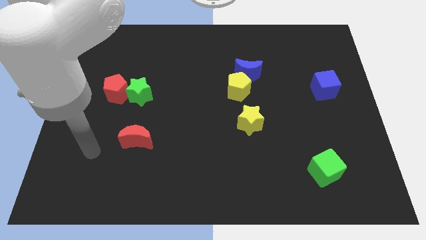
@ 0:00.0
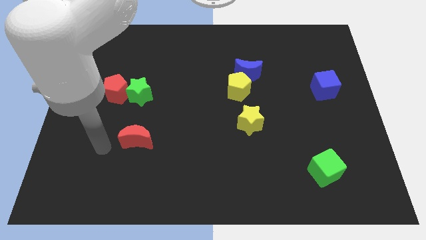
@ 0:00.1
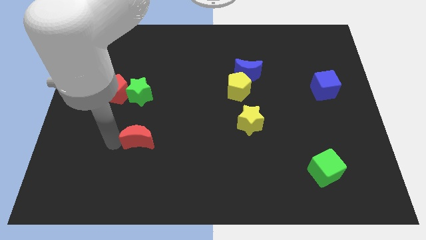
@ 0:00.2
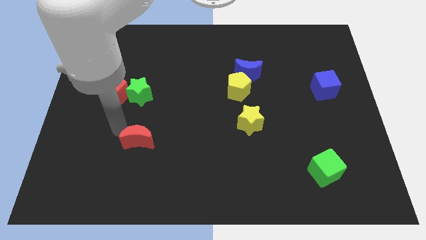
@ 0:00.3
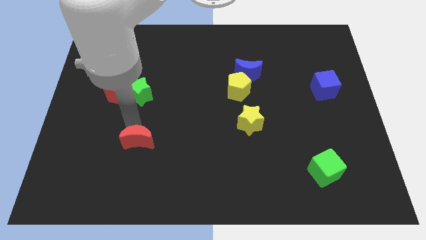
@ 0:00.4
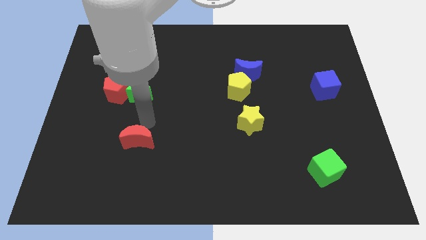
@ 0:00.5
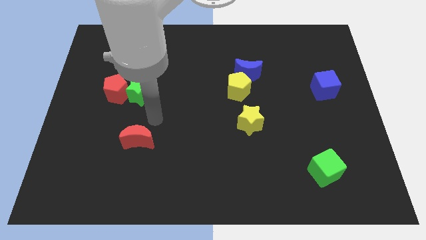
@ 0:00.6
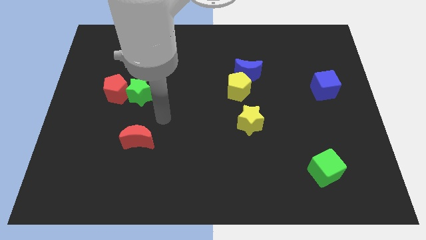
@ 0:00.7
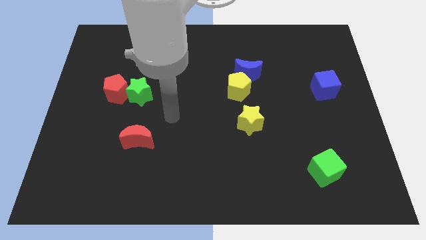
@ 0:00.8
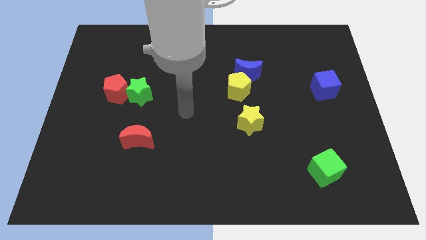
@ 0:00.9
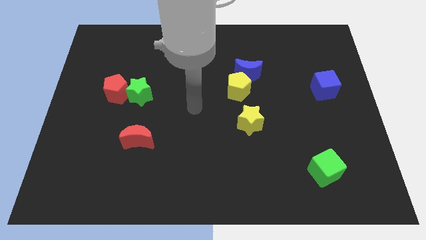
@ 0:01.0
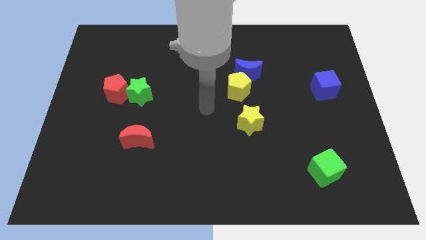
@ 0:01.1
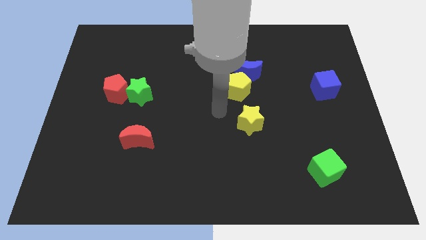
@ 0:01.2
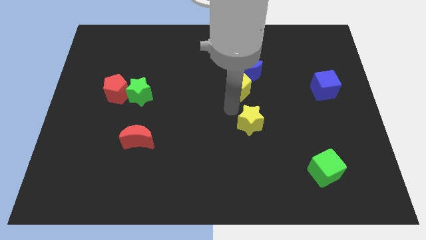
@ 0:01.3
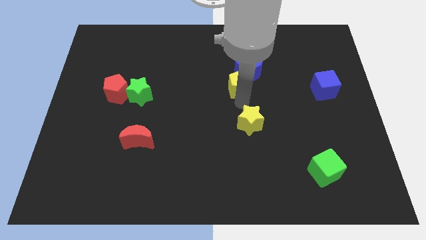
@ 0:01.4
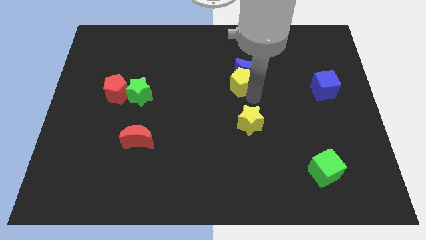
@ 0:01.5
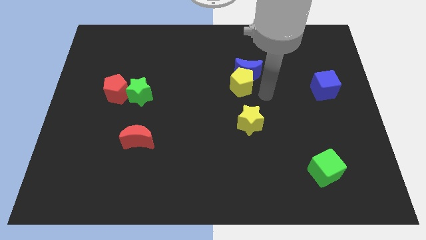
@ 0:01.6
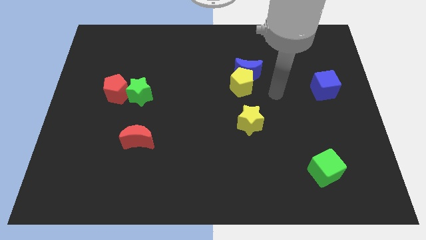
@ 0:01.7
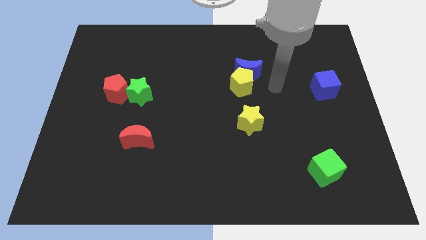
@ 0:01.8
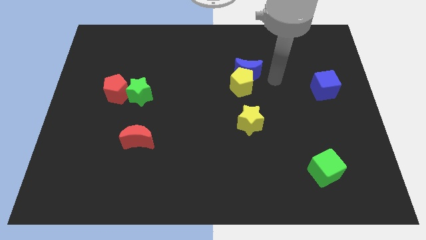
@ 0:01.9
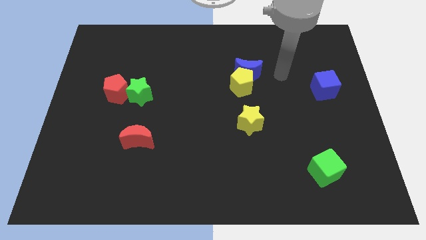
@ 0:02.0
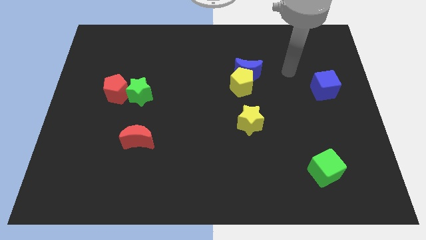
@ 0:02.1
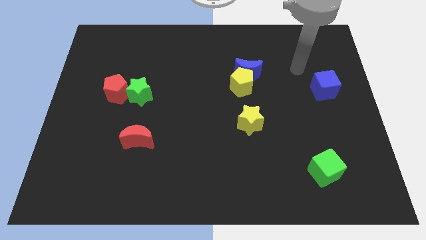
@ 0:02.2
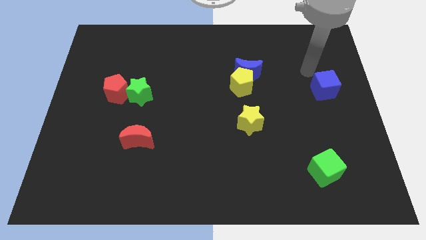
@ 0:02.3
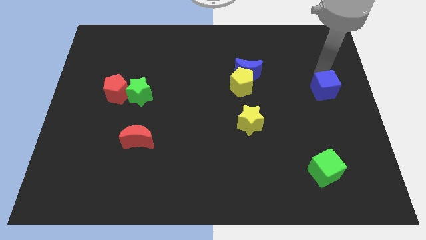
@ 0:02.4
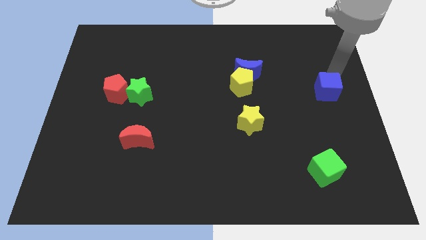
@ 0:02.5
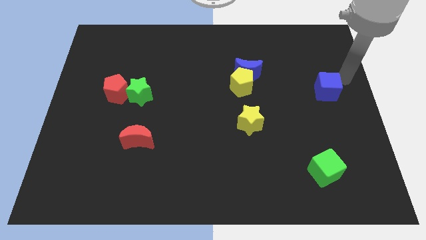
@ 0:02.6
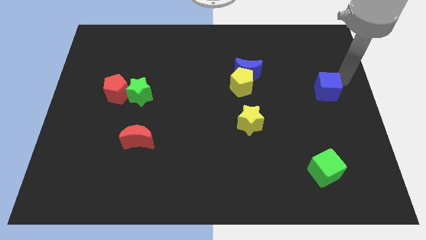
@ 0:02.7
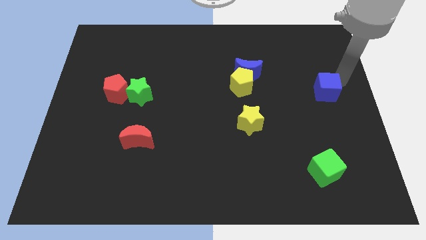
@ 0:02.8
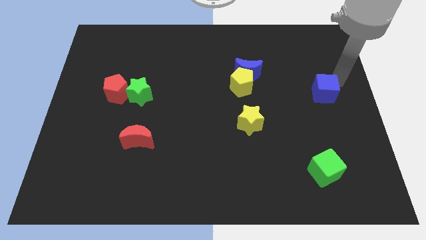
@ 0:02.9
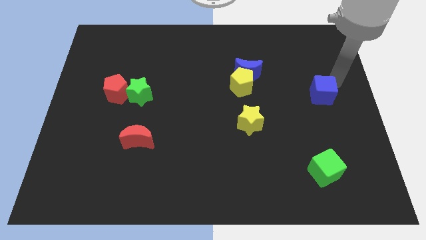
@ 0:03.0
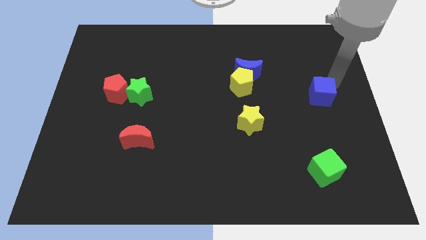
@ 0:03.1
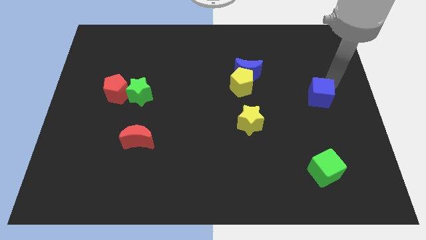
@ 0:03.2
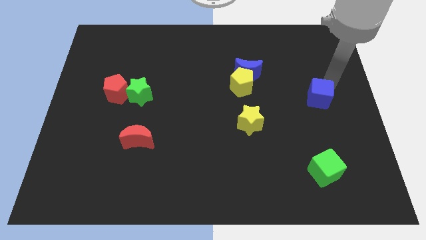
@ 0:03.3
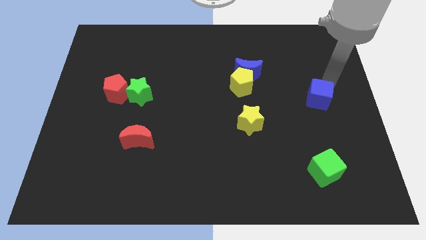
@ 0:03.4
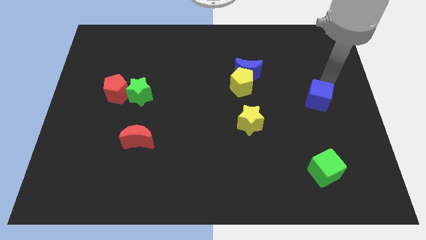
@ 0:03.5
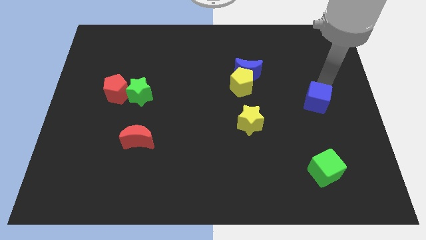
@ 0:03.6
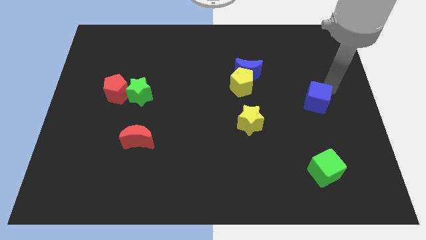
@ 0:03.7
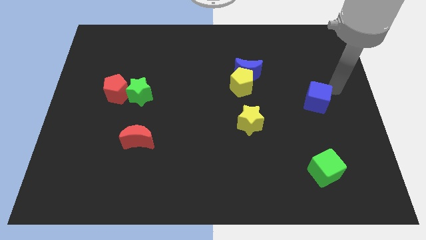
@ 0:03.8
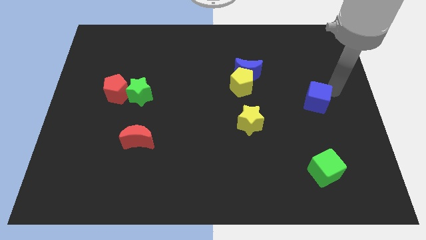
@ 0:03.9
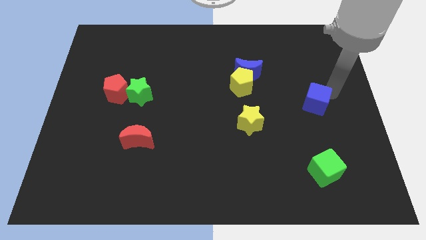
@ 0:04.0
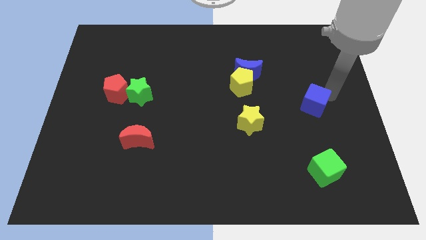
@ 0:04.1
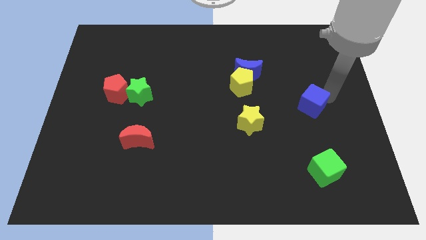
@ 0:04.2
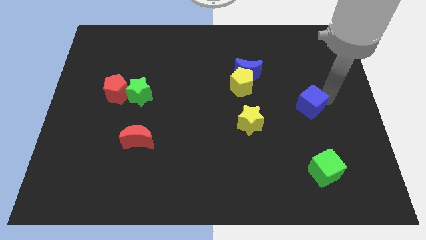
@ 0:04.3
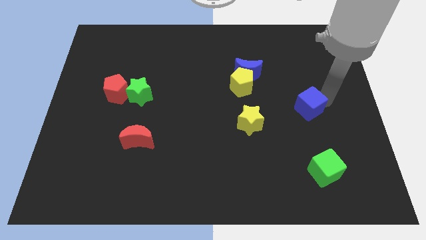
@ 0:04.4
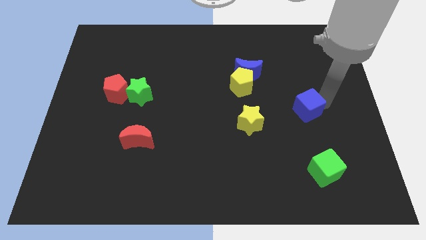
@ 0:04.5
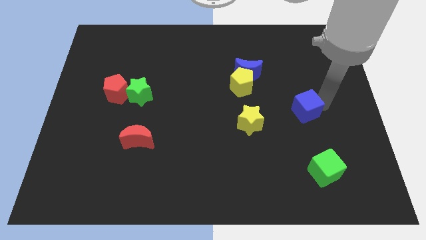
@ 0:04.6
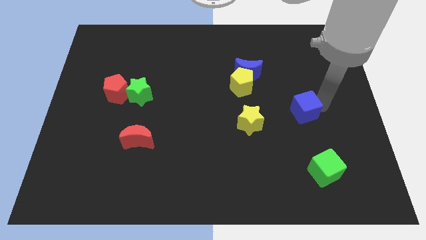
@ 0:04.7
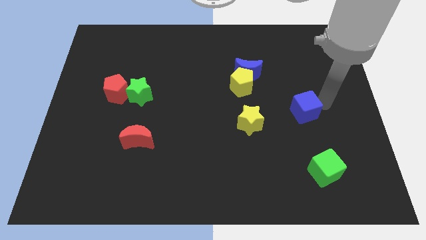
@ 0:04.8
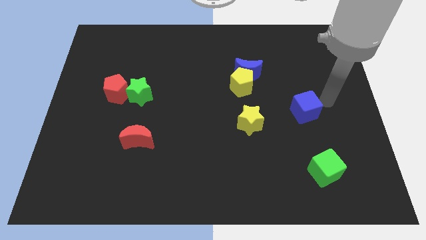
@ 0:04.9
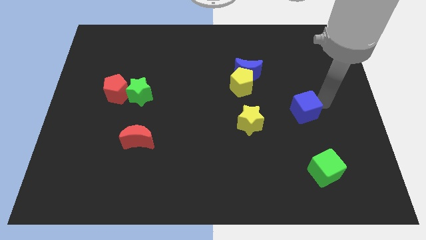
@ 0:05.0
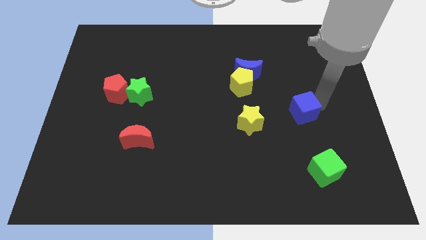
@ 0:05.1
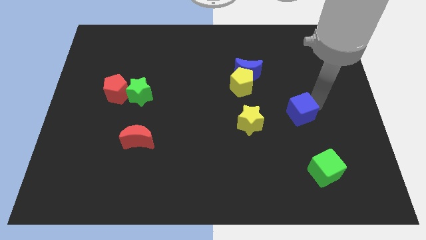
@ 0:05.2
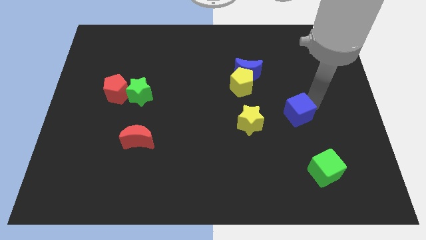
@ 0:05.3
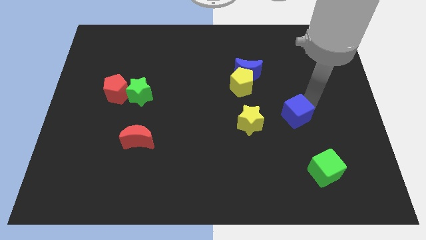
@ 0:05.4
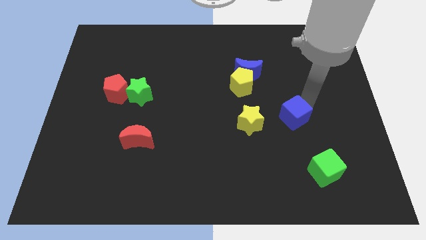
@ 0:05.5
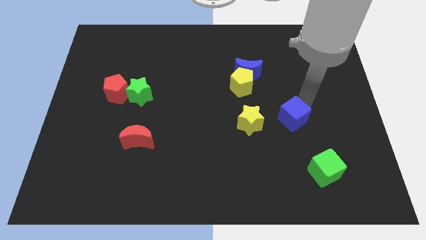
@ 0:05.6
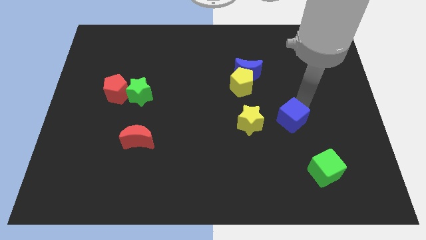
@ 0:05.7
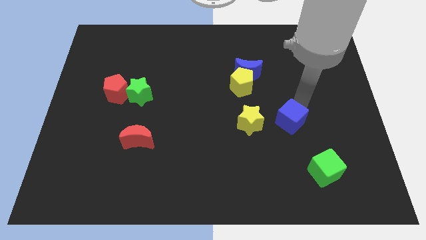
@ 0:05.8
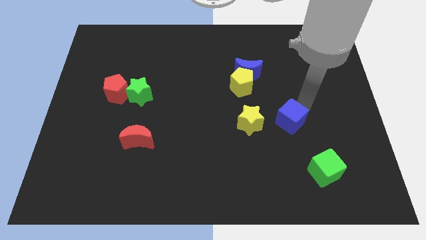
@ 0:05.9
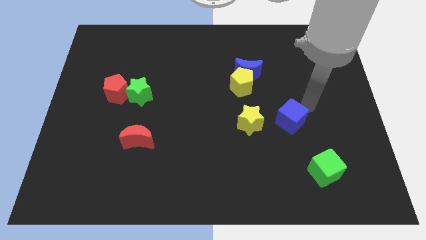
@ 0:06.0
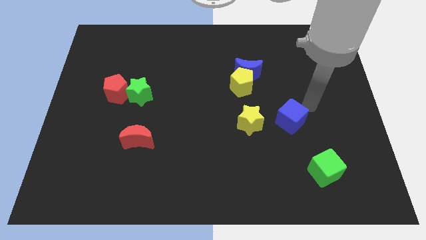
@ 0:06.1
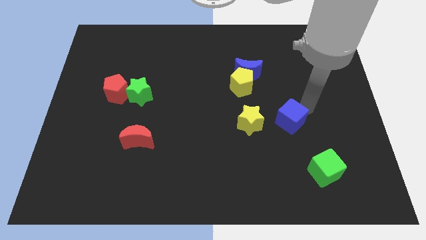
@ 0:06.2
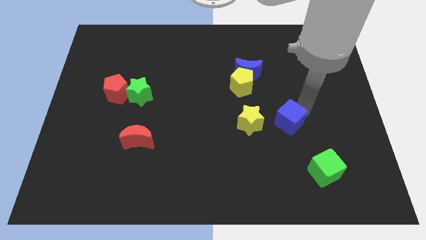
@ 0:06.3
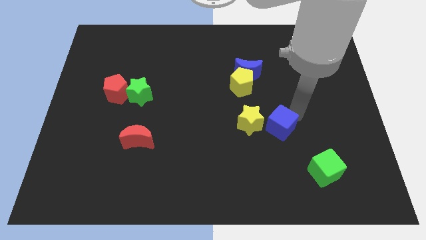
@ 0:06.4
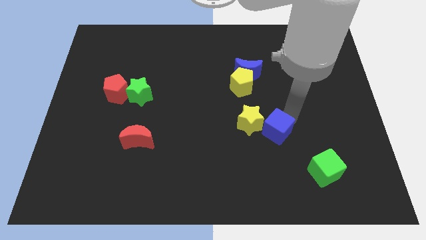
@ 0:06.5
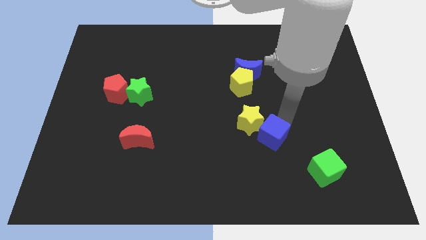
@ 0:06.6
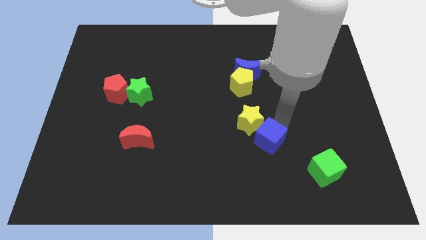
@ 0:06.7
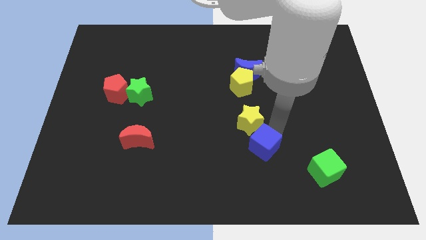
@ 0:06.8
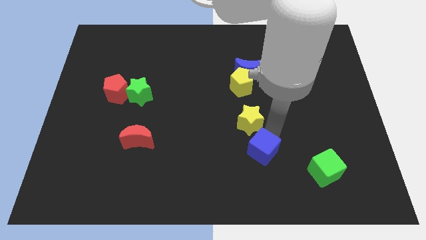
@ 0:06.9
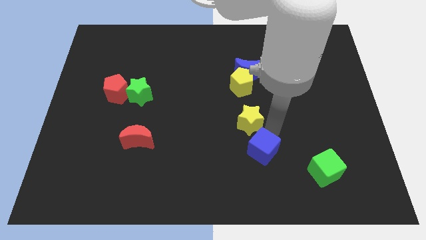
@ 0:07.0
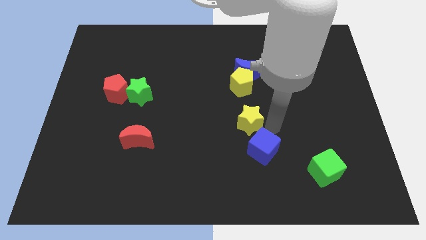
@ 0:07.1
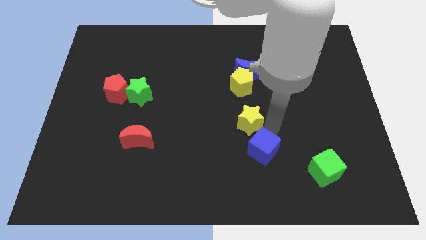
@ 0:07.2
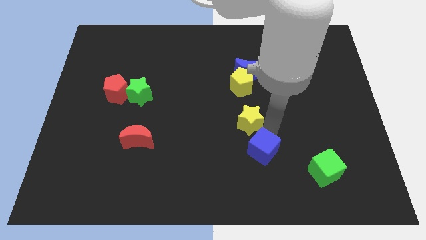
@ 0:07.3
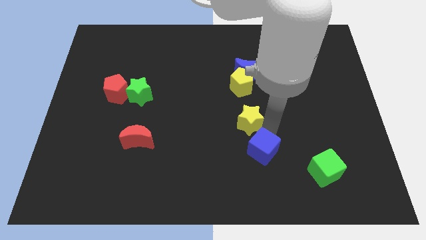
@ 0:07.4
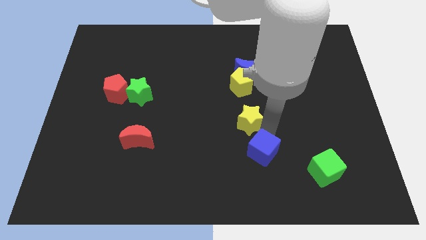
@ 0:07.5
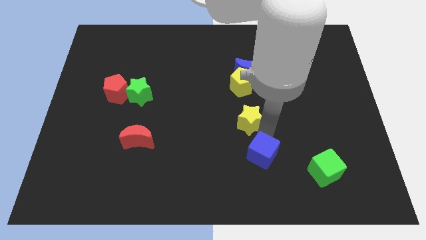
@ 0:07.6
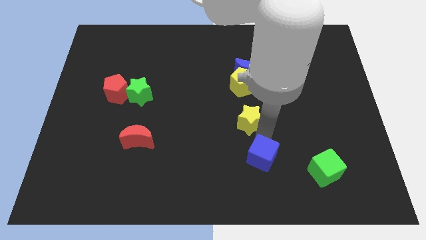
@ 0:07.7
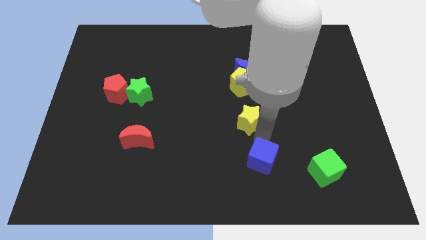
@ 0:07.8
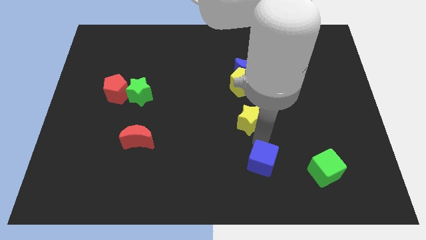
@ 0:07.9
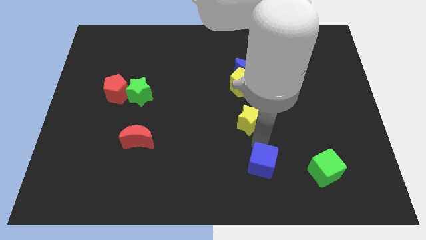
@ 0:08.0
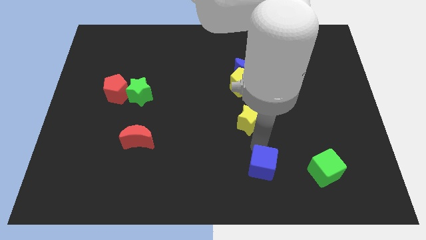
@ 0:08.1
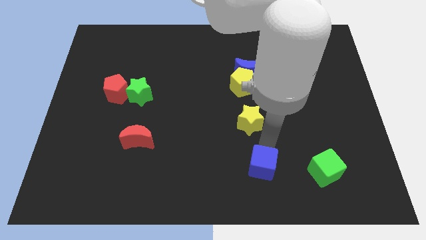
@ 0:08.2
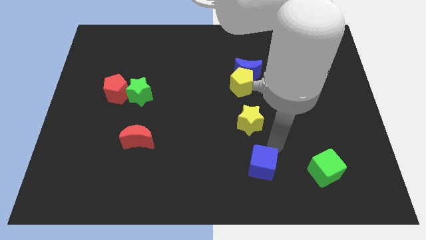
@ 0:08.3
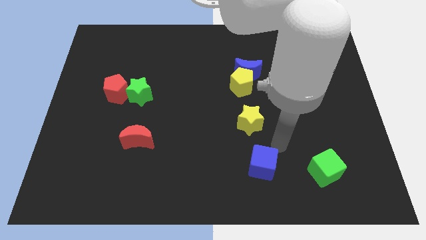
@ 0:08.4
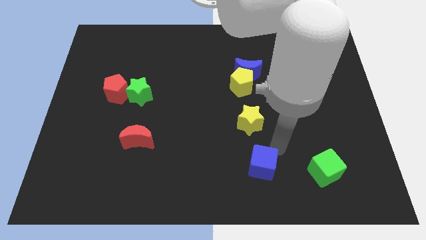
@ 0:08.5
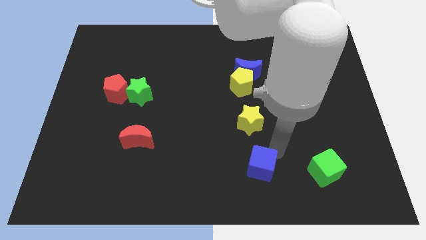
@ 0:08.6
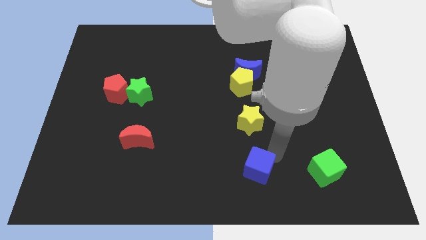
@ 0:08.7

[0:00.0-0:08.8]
slide the blue cube to the bottom
